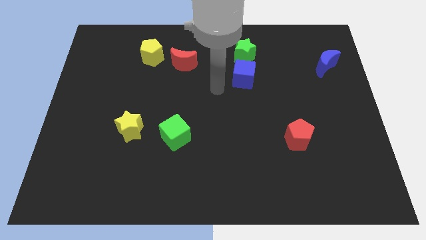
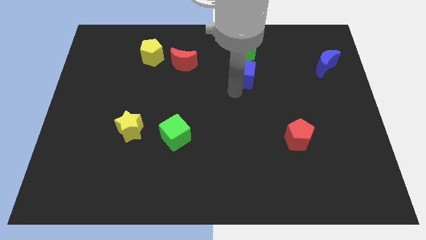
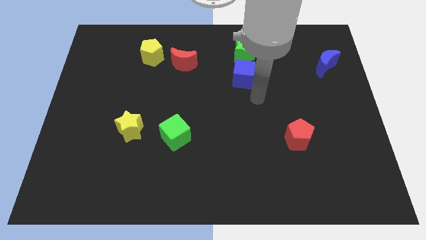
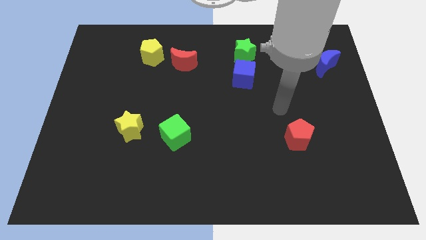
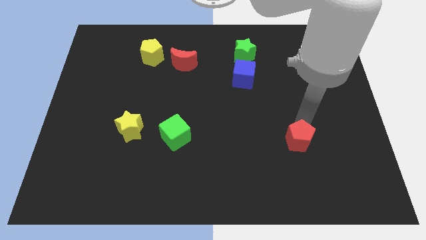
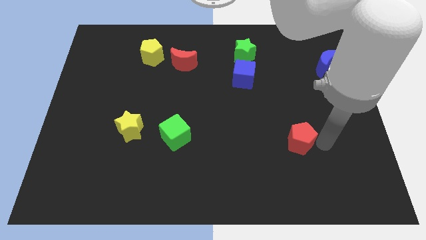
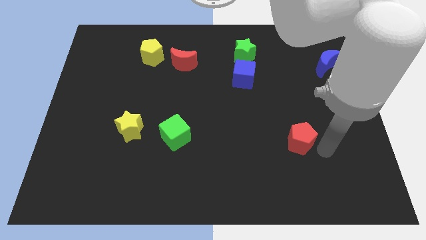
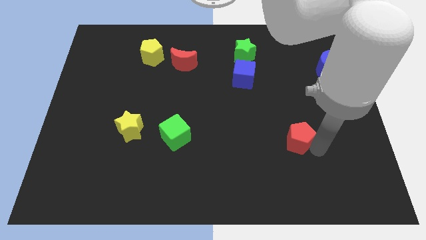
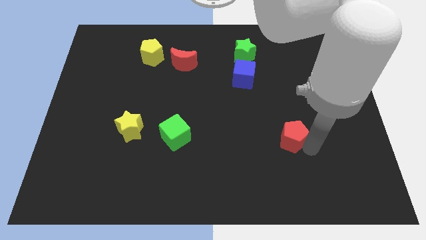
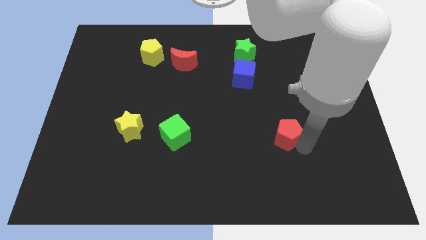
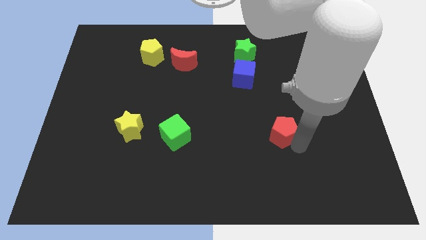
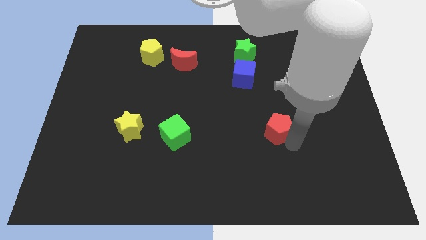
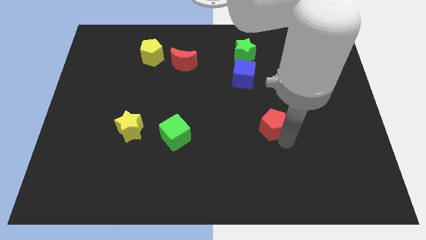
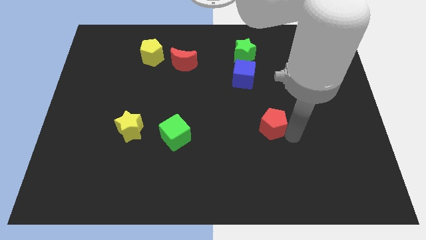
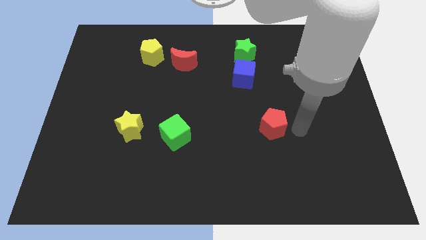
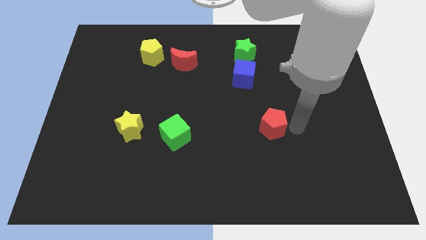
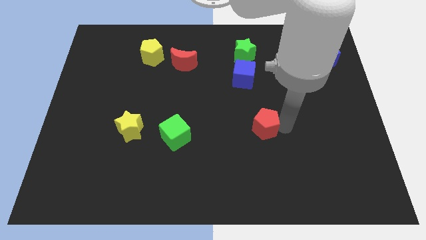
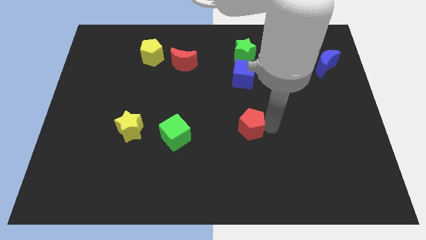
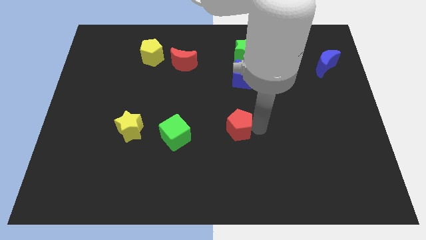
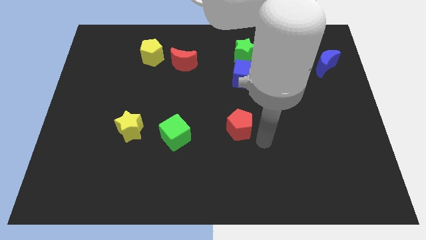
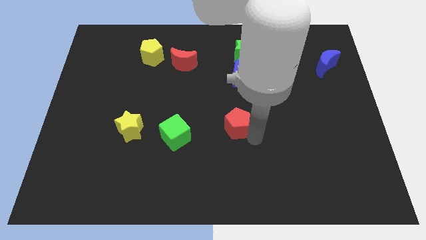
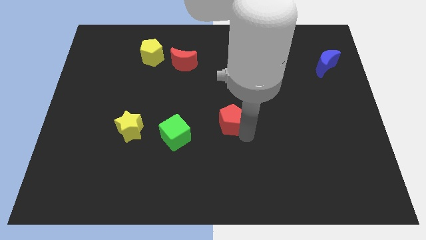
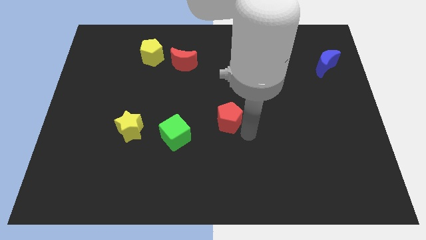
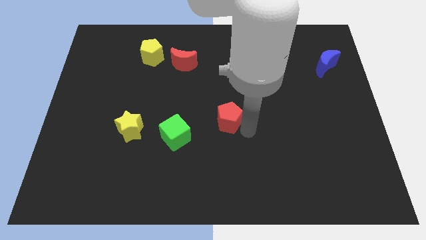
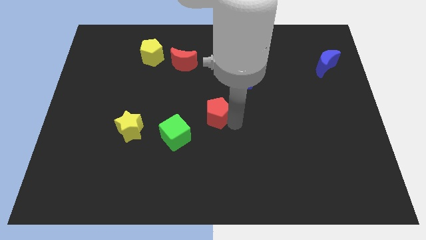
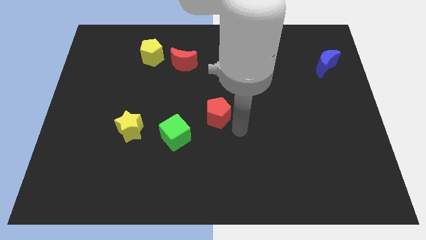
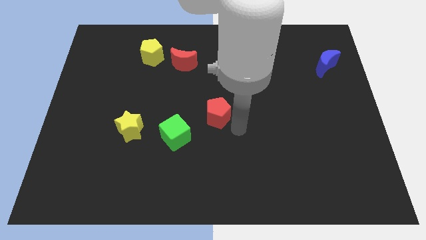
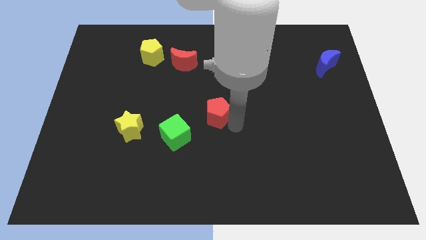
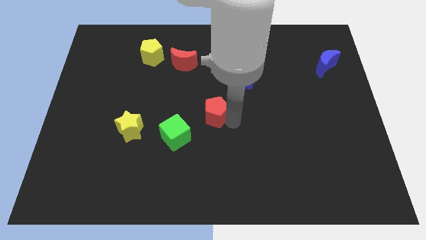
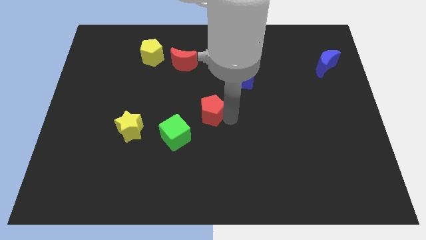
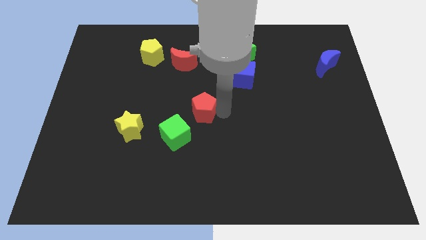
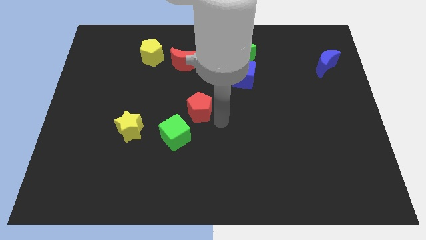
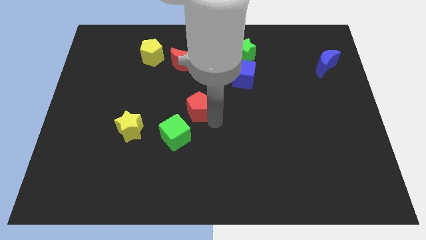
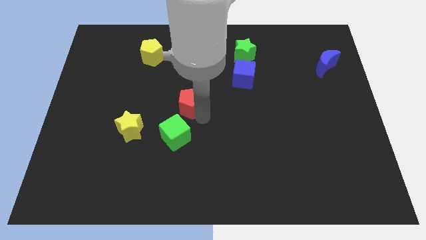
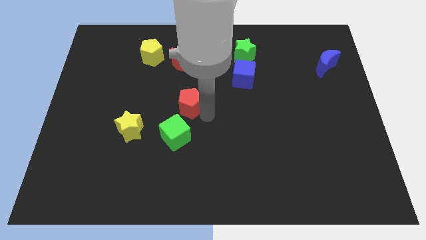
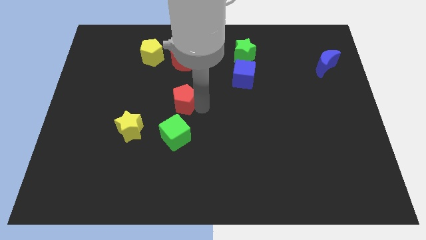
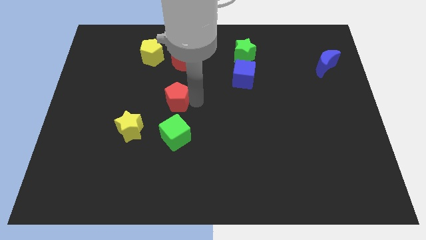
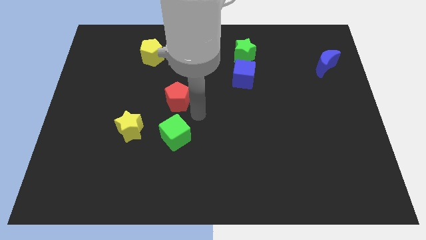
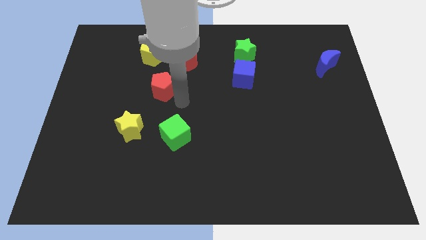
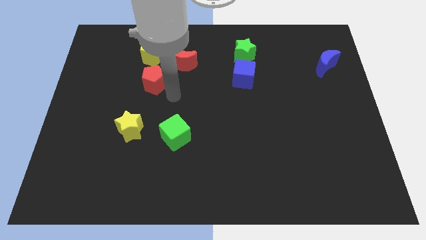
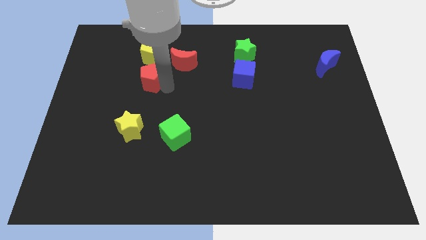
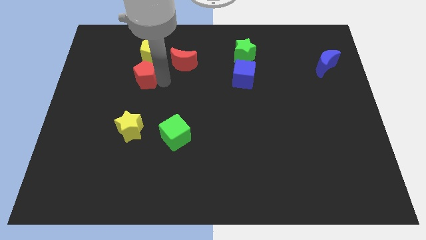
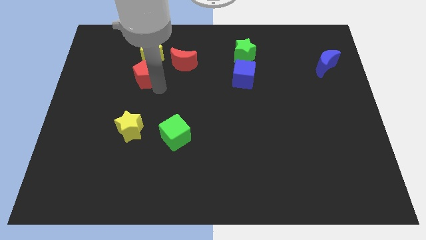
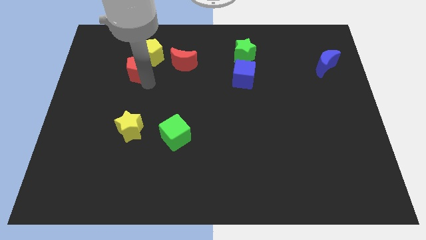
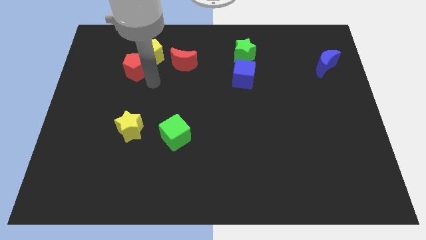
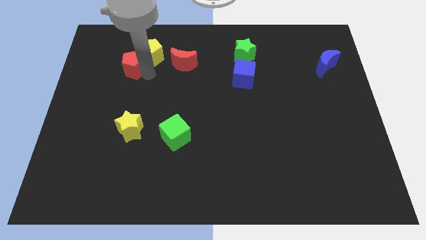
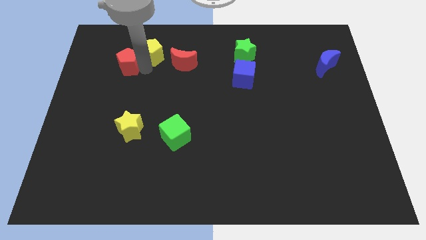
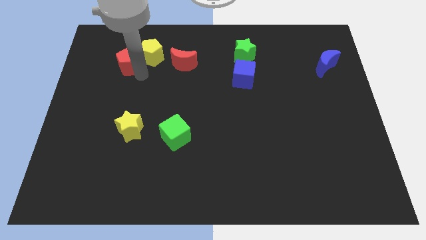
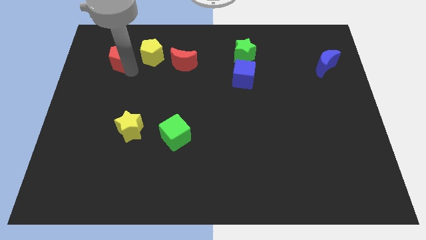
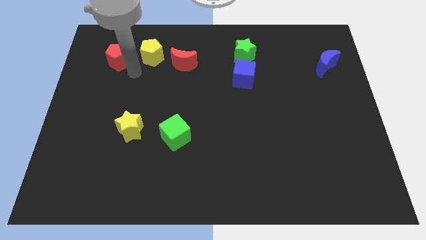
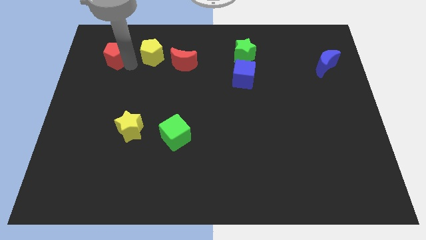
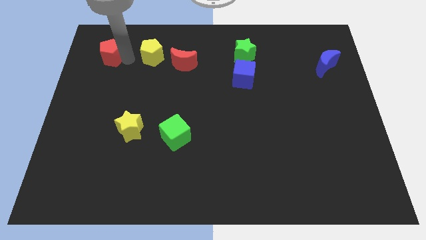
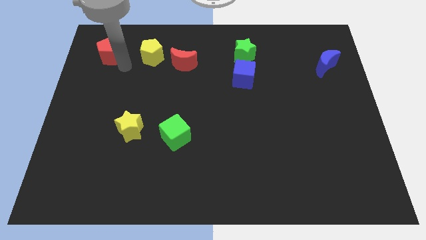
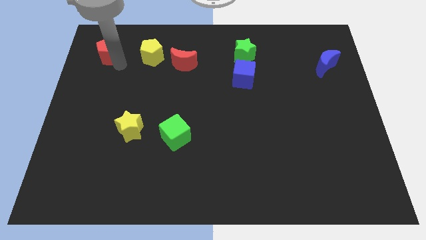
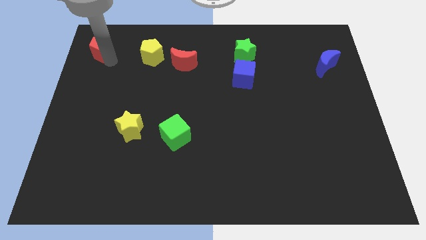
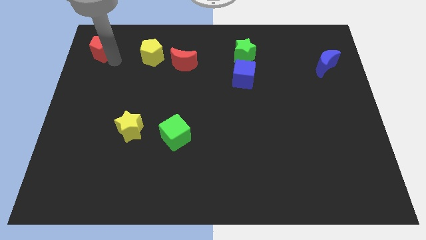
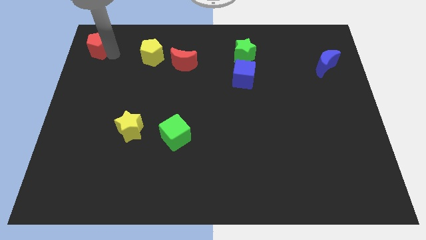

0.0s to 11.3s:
slide the red pentagon to the top left of the board

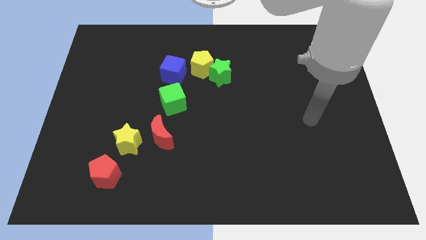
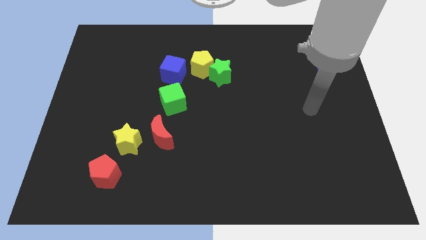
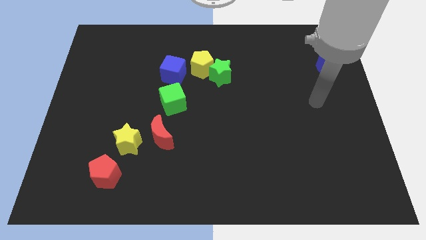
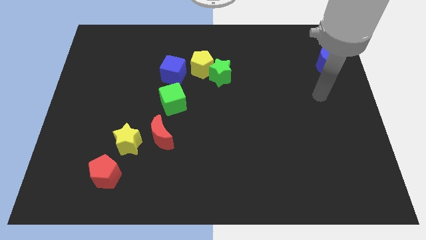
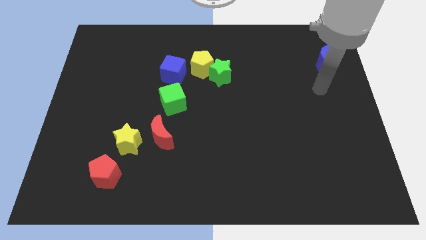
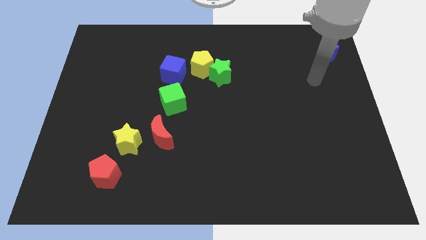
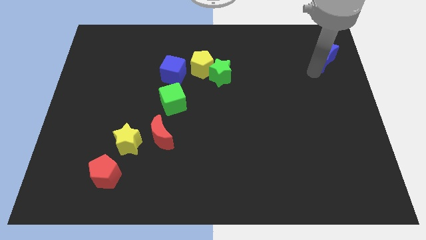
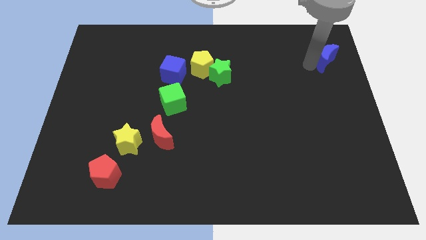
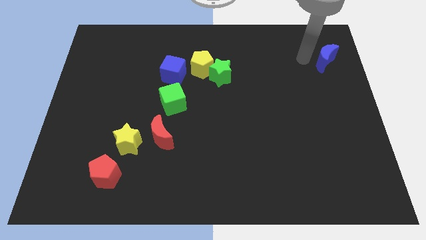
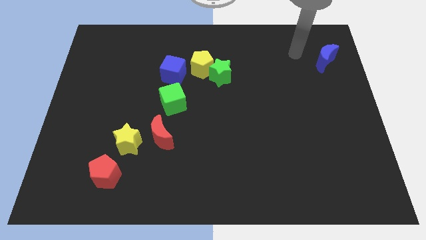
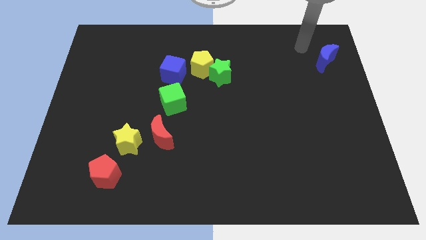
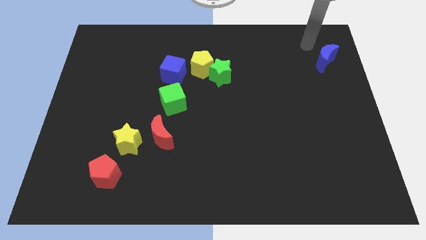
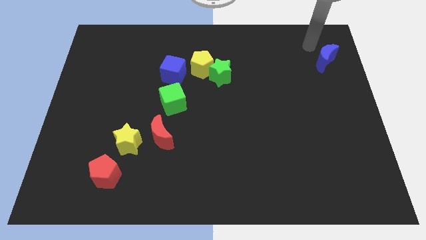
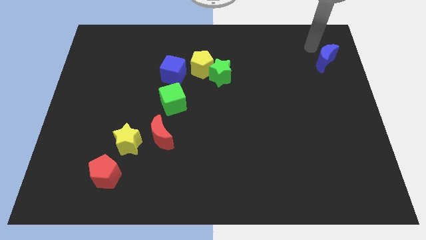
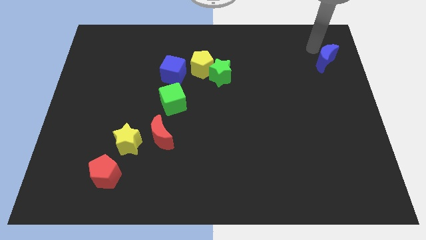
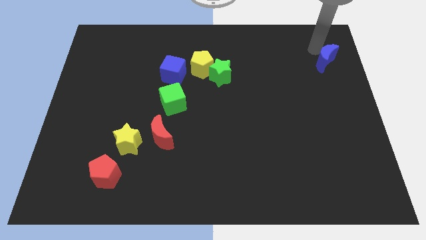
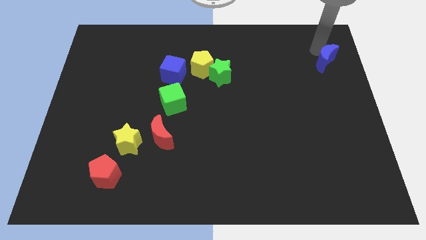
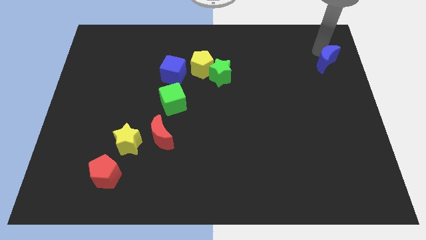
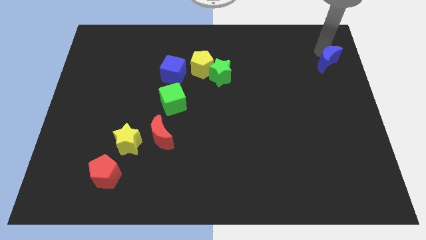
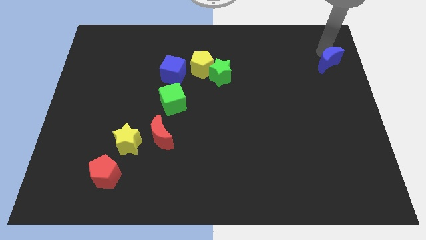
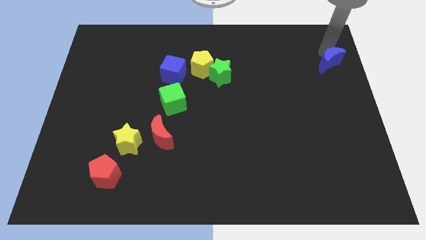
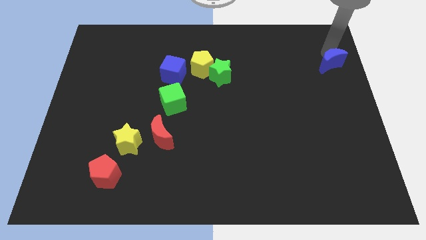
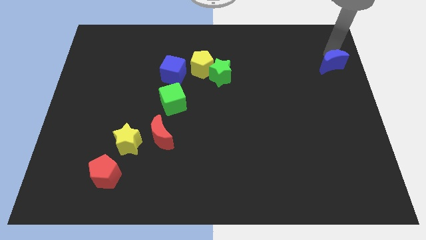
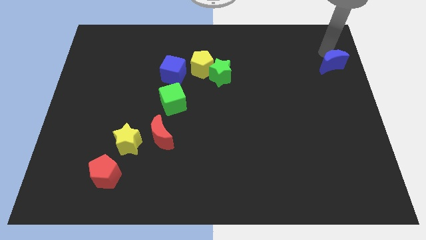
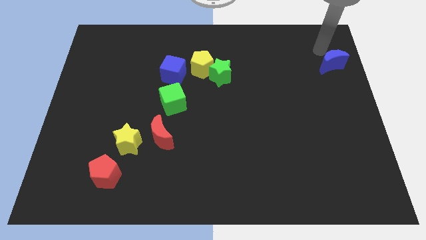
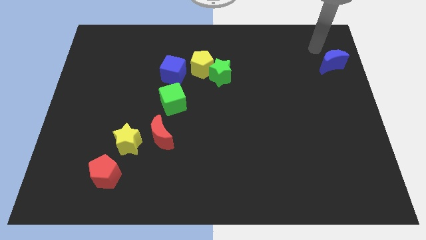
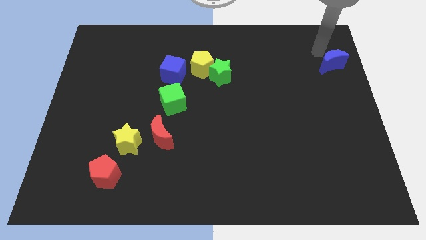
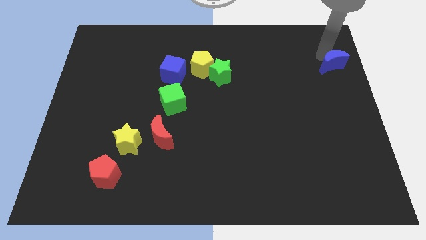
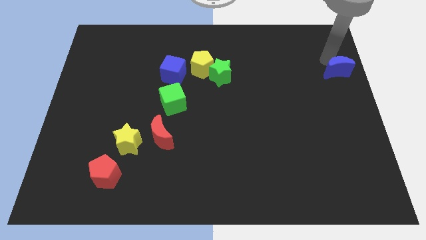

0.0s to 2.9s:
move the blue moon to the right side of the board
